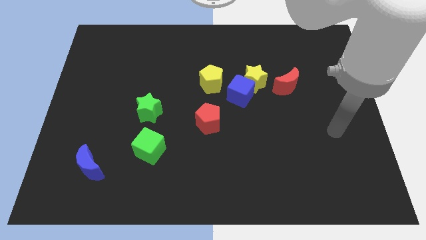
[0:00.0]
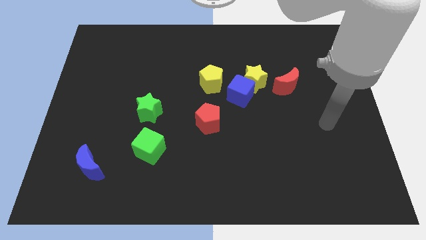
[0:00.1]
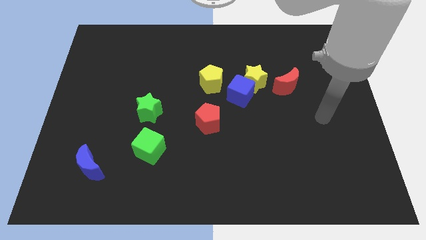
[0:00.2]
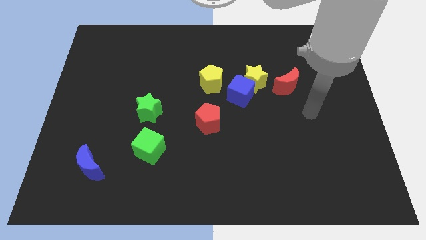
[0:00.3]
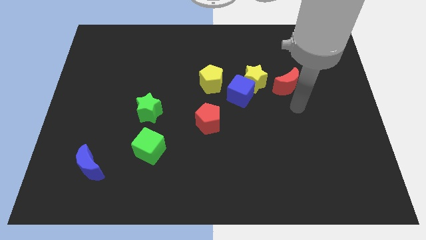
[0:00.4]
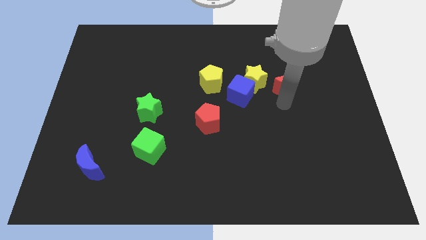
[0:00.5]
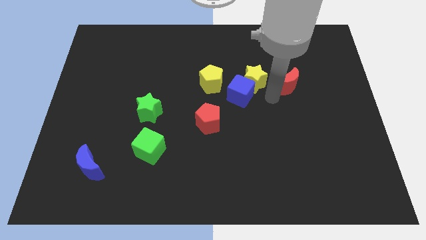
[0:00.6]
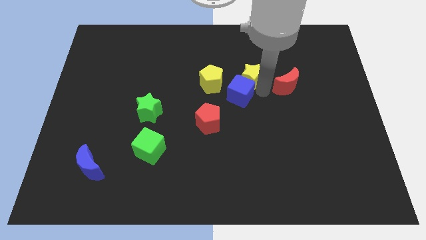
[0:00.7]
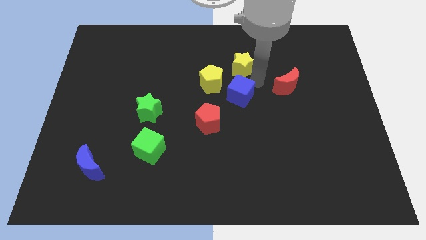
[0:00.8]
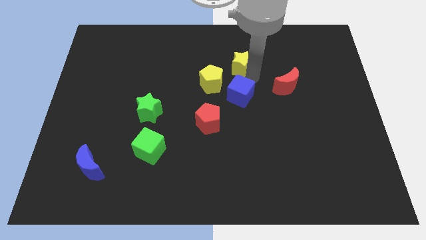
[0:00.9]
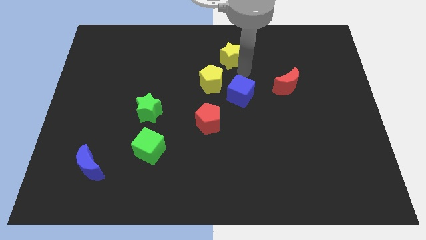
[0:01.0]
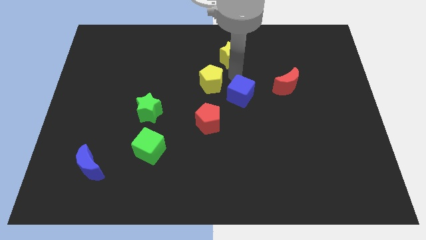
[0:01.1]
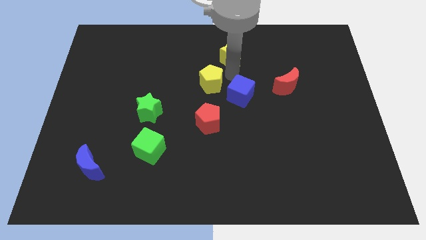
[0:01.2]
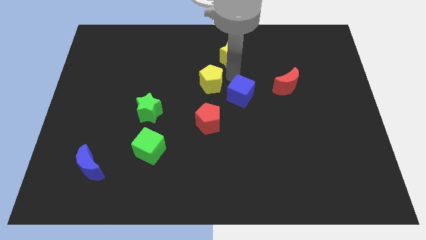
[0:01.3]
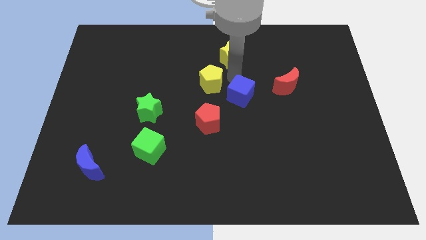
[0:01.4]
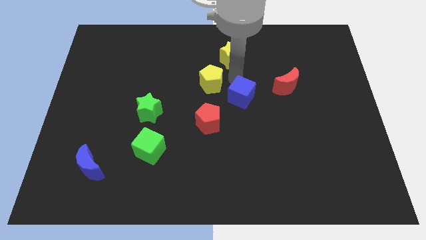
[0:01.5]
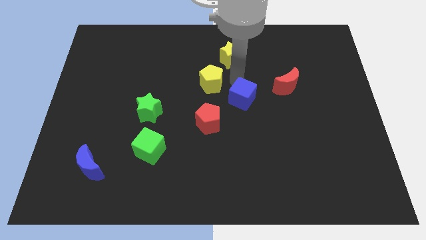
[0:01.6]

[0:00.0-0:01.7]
separate the blue cube from the yellow star and yellow pentagon

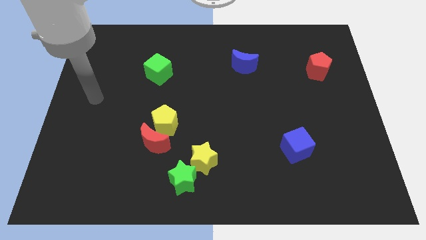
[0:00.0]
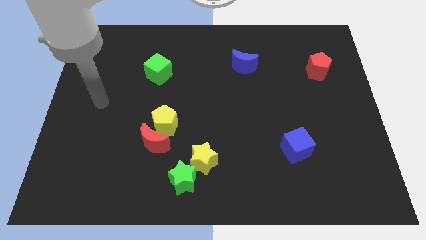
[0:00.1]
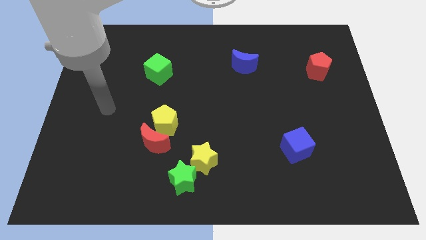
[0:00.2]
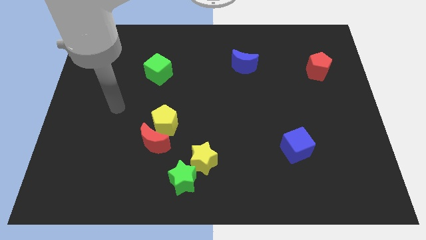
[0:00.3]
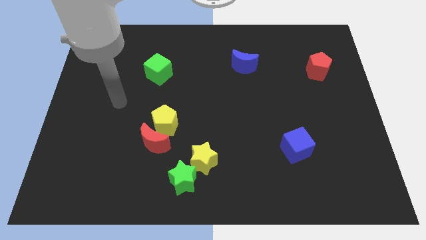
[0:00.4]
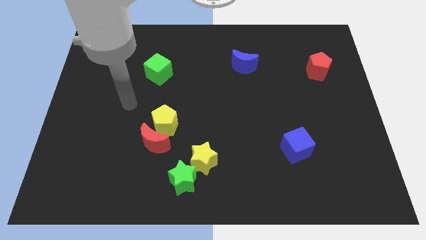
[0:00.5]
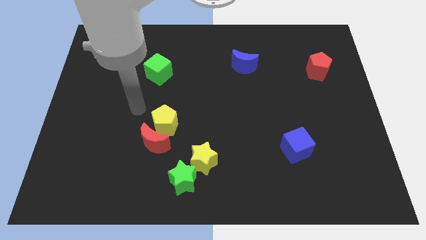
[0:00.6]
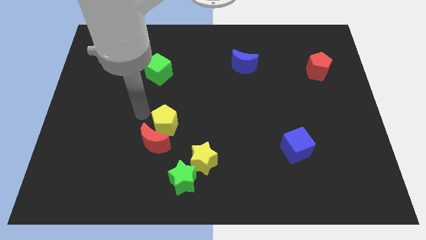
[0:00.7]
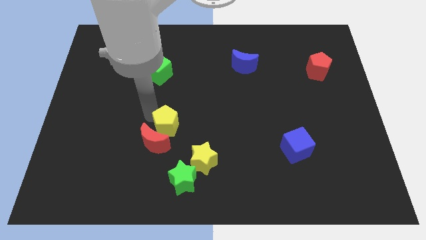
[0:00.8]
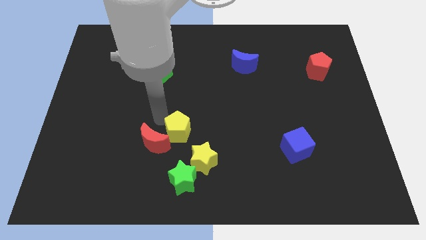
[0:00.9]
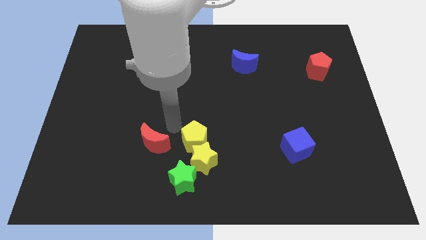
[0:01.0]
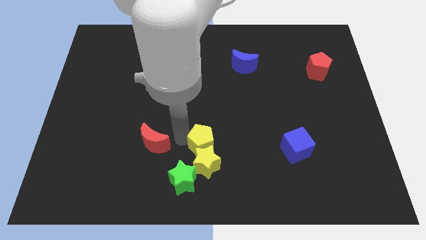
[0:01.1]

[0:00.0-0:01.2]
pull the red moon apart from the yellow pentagon

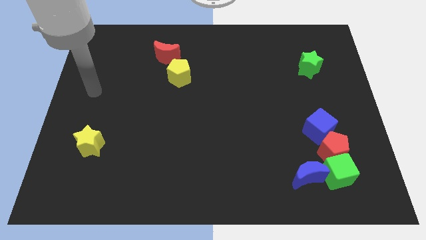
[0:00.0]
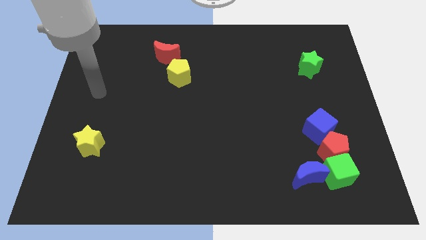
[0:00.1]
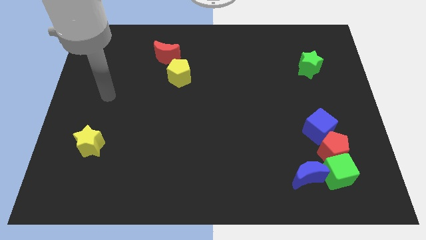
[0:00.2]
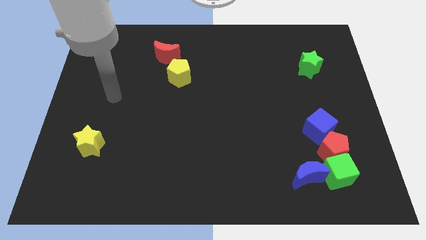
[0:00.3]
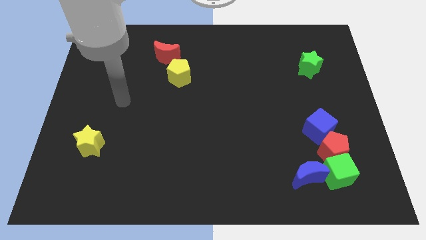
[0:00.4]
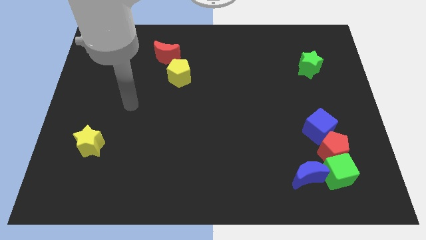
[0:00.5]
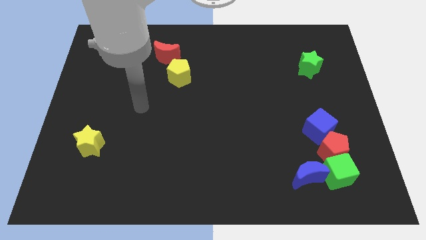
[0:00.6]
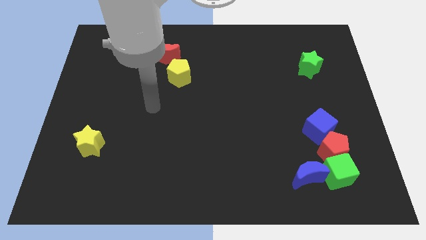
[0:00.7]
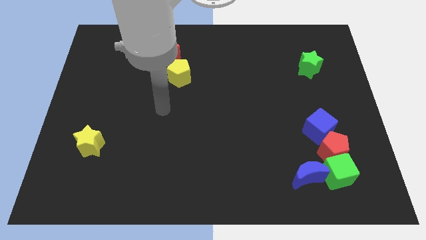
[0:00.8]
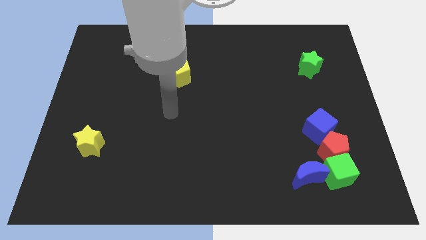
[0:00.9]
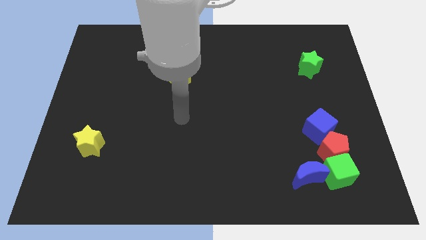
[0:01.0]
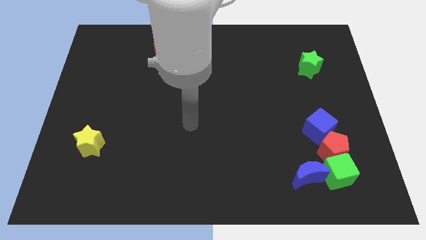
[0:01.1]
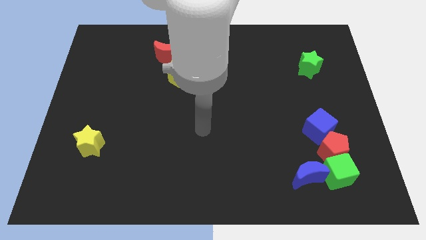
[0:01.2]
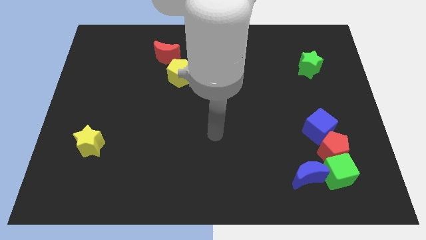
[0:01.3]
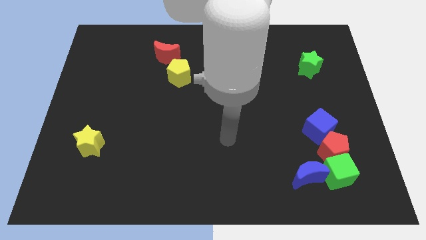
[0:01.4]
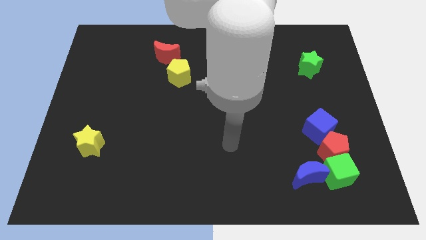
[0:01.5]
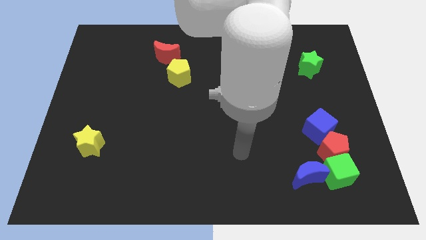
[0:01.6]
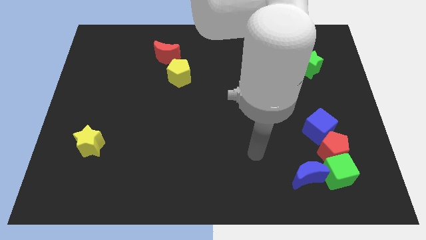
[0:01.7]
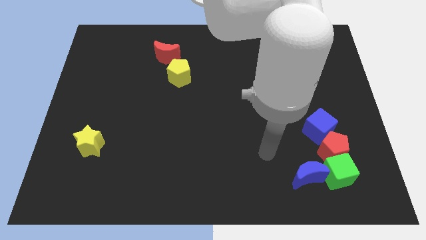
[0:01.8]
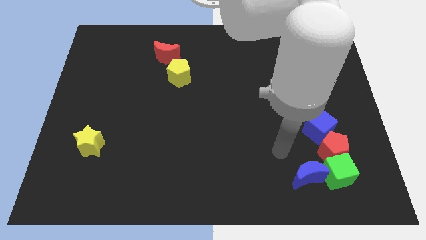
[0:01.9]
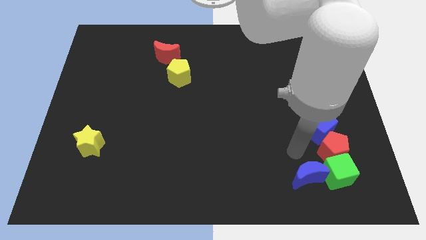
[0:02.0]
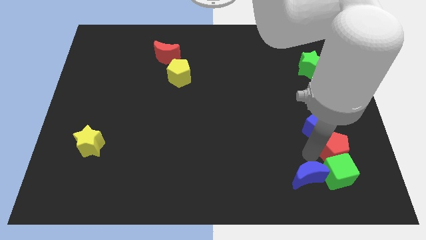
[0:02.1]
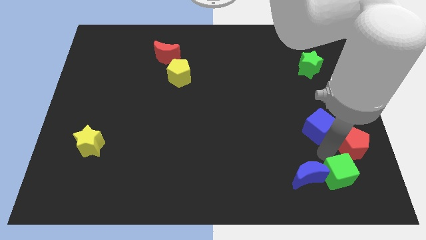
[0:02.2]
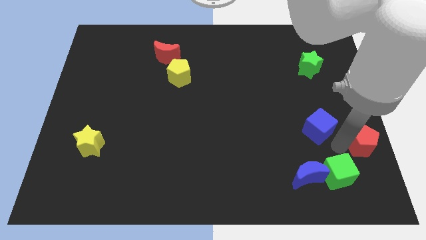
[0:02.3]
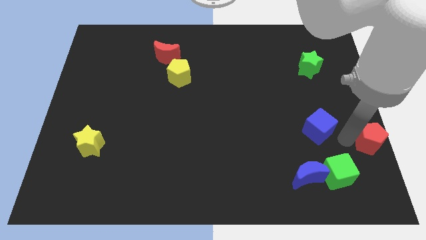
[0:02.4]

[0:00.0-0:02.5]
move the blue cube away from the red pentagon

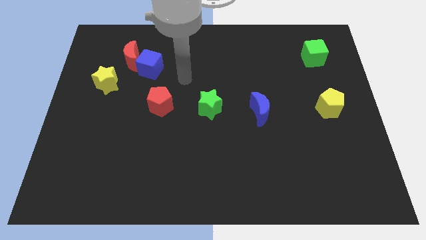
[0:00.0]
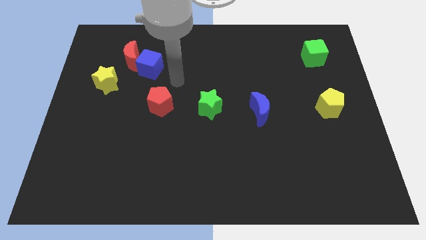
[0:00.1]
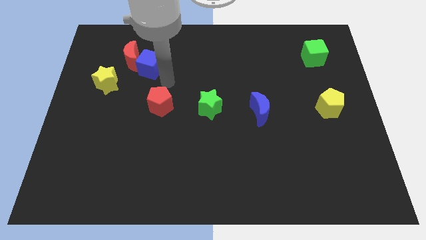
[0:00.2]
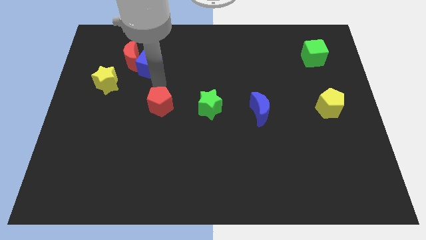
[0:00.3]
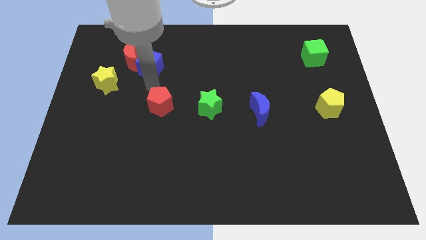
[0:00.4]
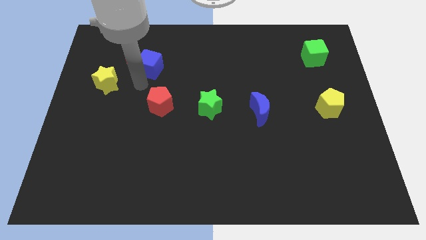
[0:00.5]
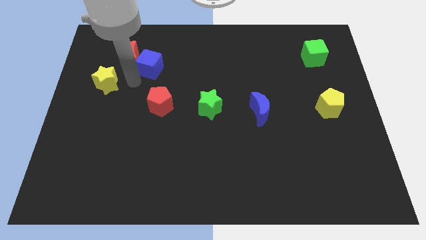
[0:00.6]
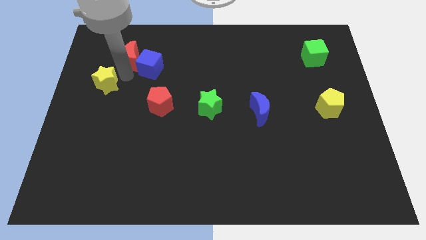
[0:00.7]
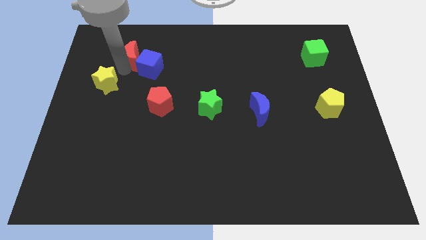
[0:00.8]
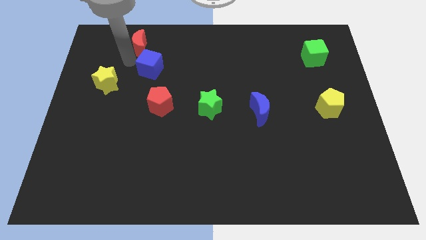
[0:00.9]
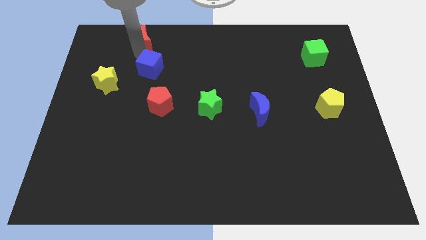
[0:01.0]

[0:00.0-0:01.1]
separate the blue cube from the red moon

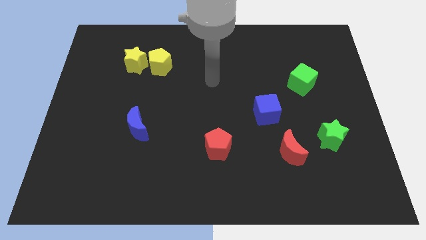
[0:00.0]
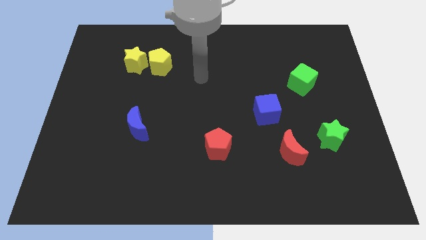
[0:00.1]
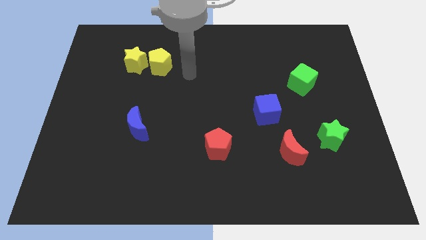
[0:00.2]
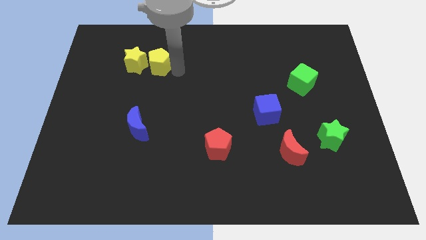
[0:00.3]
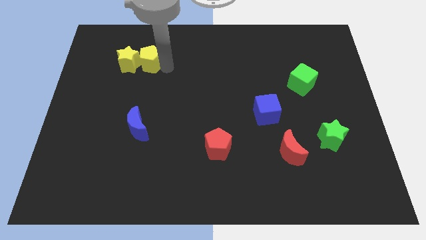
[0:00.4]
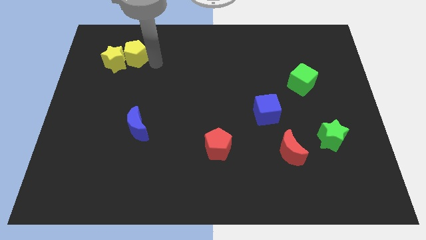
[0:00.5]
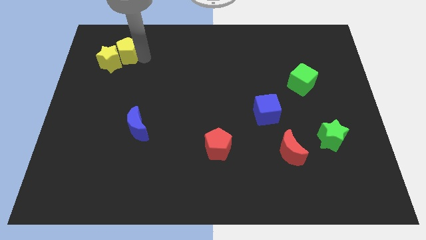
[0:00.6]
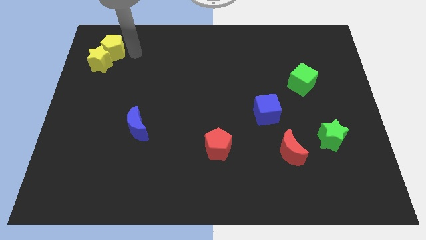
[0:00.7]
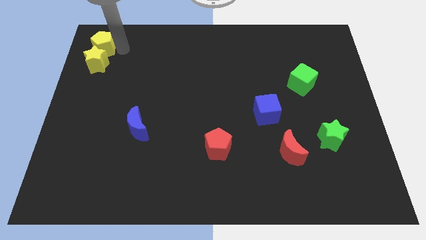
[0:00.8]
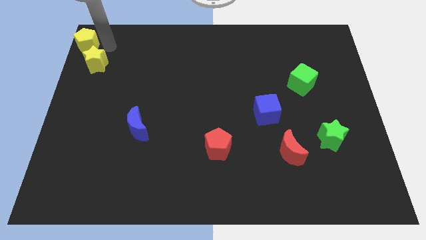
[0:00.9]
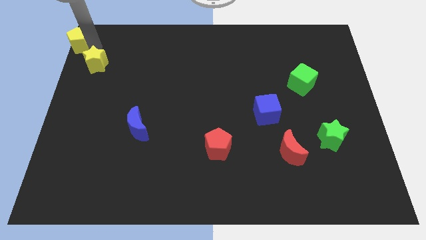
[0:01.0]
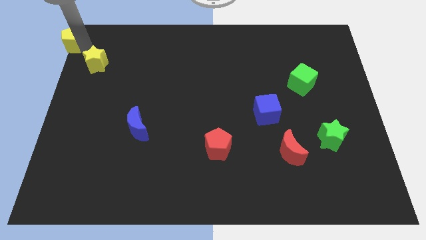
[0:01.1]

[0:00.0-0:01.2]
pull the yellow star apart from the yellow pentagon

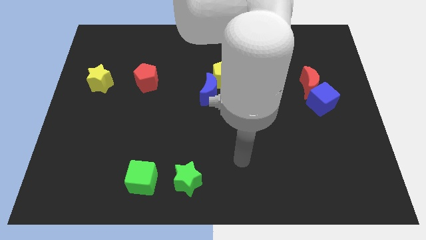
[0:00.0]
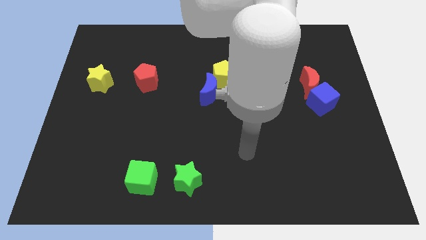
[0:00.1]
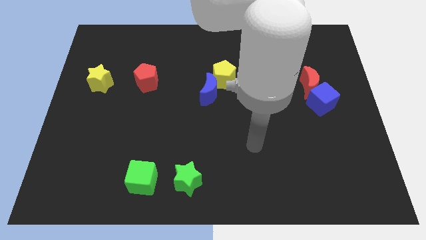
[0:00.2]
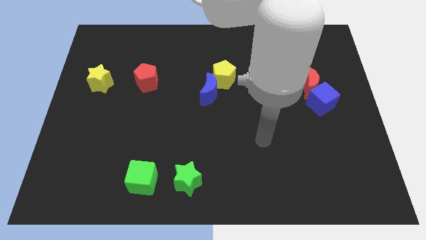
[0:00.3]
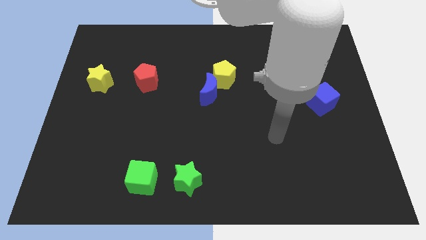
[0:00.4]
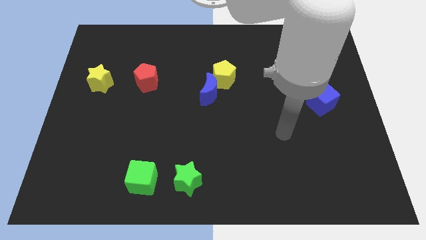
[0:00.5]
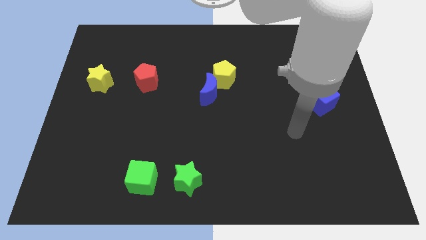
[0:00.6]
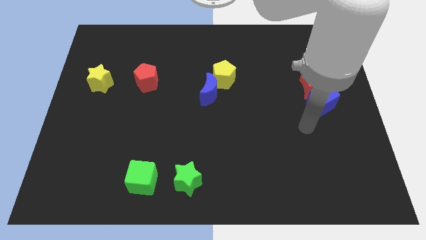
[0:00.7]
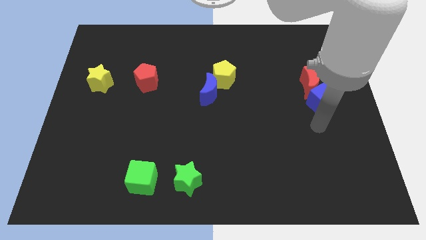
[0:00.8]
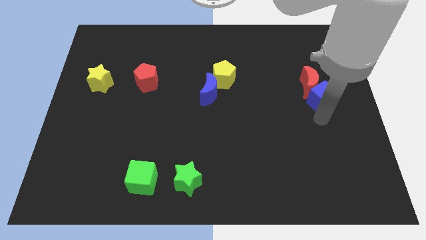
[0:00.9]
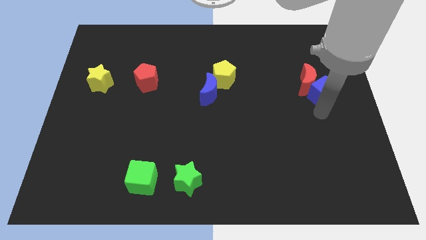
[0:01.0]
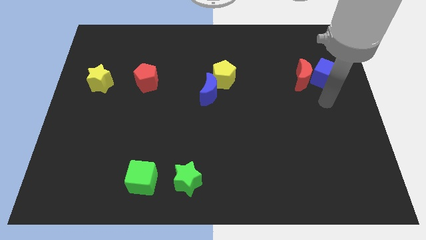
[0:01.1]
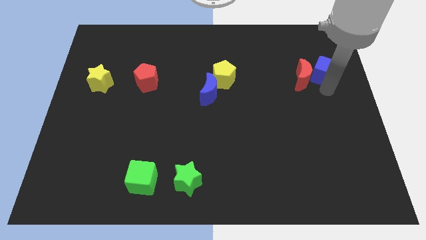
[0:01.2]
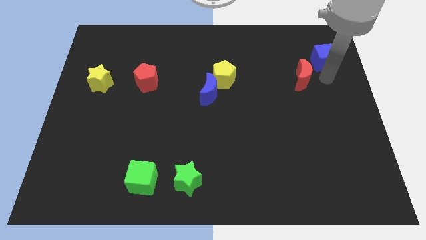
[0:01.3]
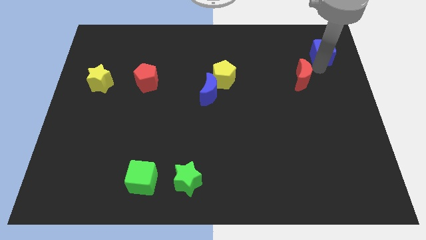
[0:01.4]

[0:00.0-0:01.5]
move the red moon away from the blue cube

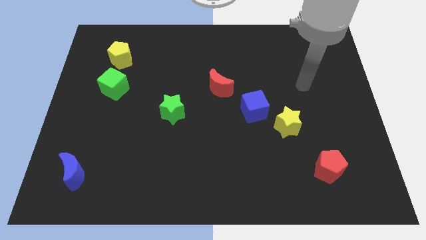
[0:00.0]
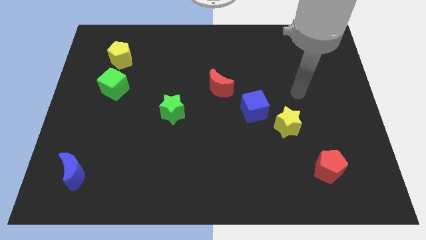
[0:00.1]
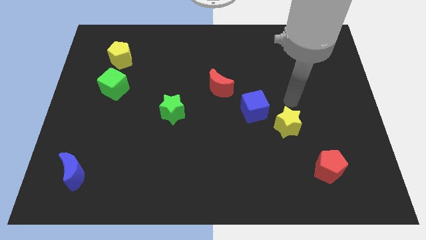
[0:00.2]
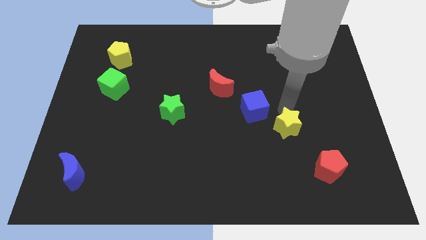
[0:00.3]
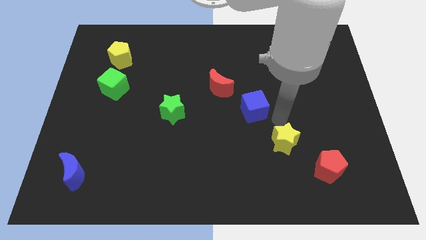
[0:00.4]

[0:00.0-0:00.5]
move the blue cube away from the yellow star
